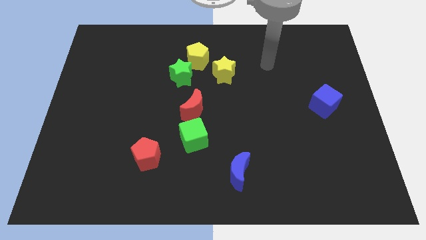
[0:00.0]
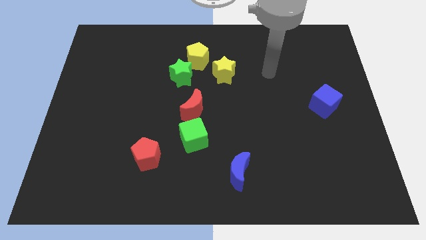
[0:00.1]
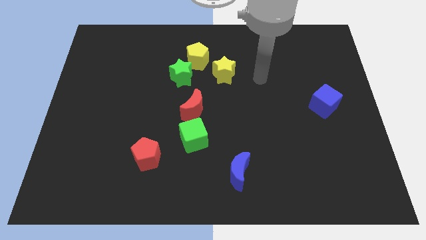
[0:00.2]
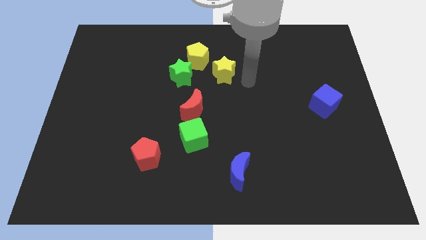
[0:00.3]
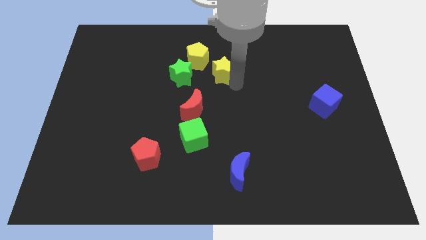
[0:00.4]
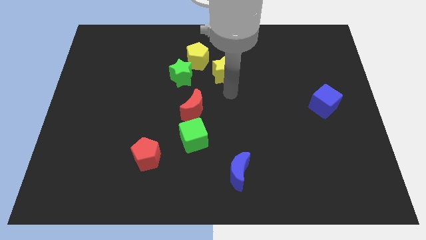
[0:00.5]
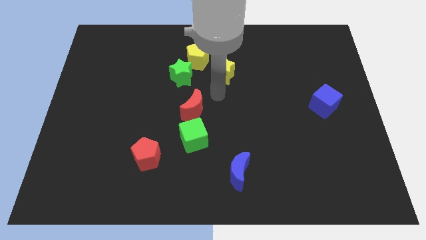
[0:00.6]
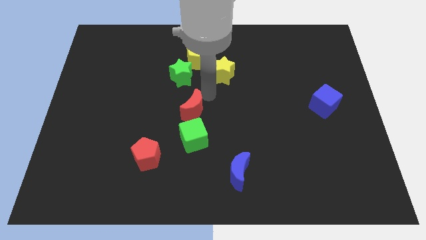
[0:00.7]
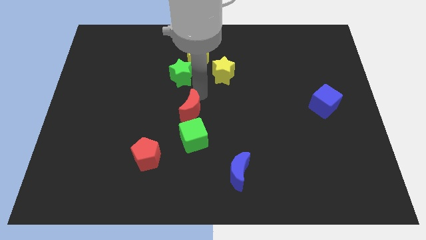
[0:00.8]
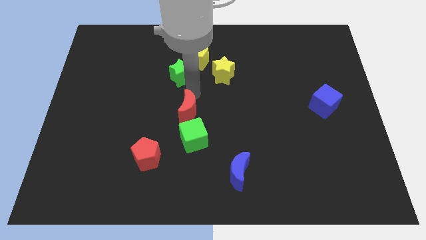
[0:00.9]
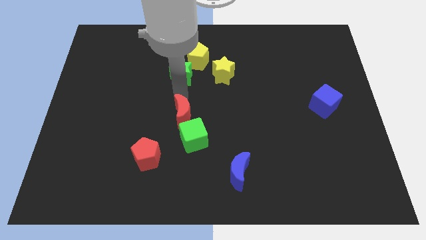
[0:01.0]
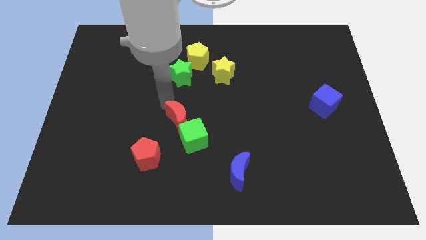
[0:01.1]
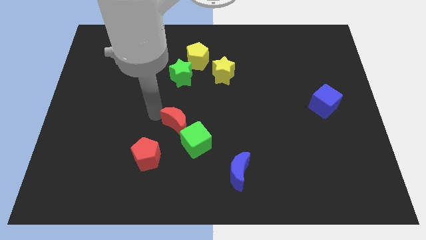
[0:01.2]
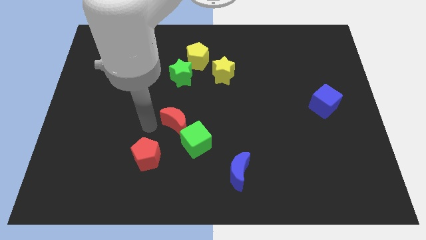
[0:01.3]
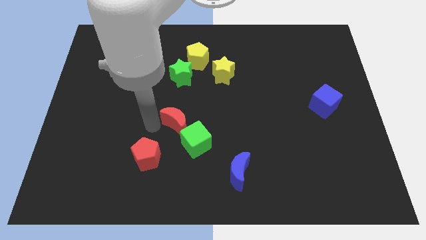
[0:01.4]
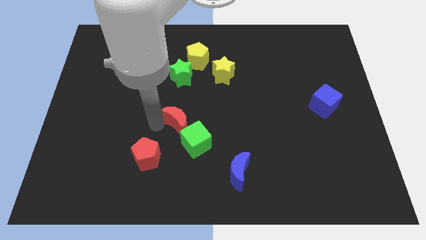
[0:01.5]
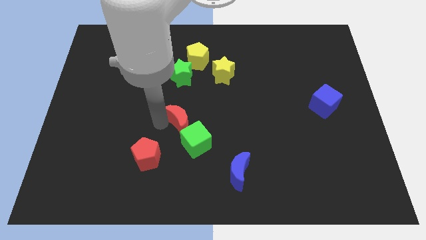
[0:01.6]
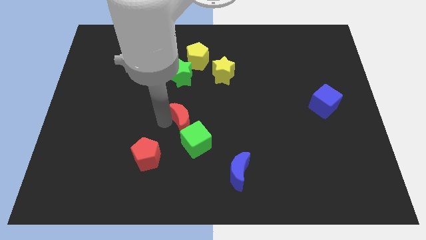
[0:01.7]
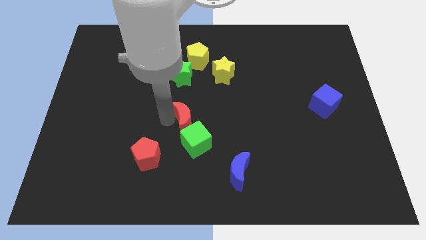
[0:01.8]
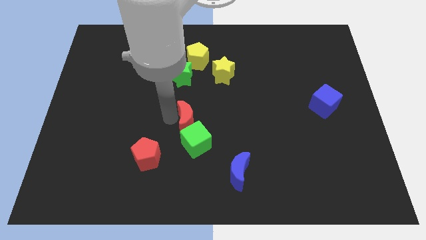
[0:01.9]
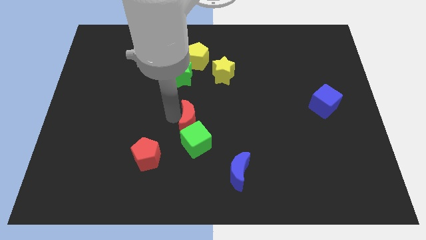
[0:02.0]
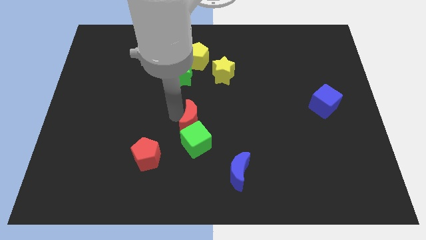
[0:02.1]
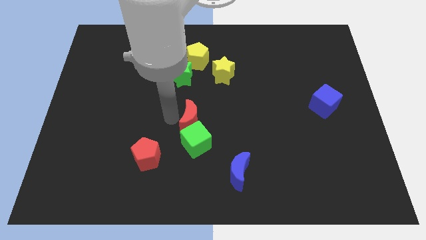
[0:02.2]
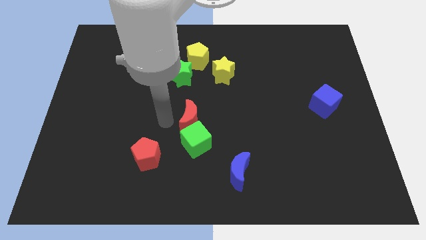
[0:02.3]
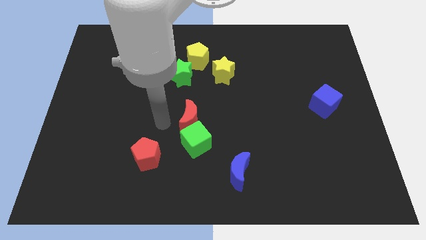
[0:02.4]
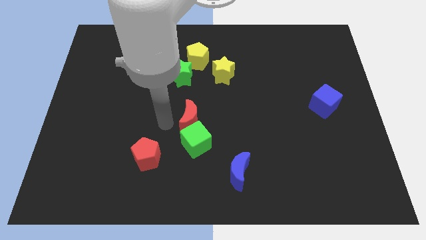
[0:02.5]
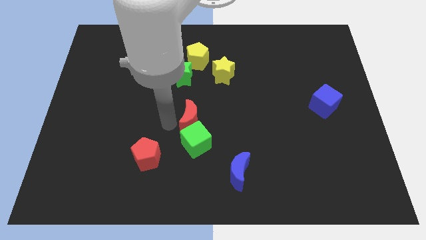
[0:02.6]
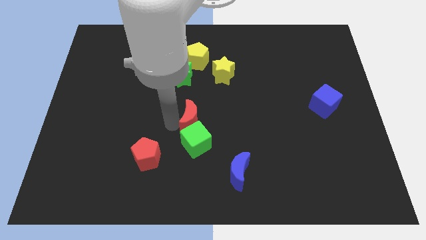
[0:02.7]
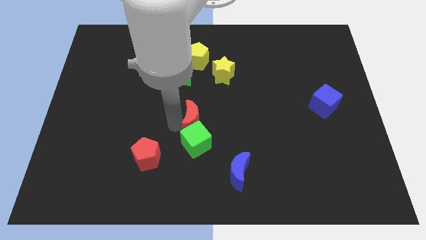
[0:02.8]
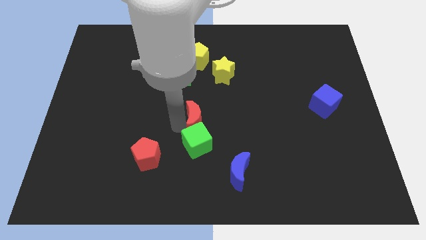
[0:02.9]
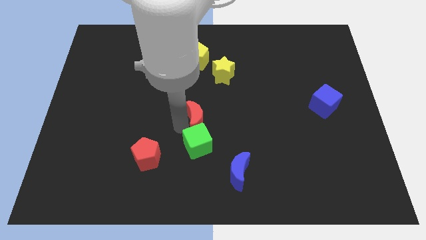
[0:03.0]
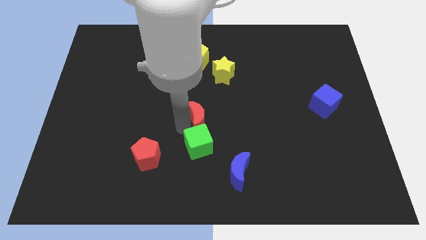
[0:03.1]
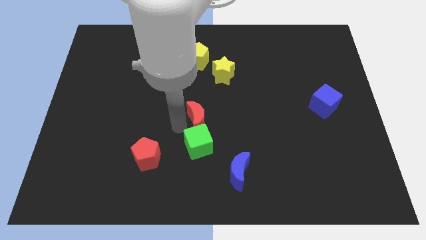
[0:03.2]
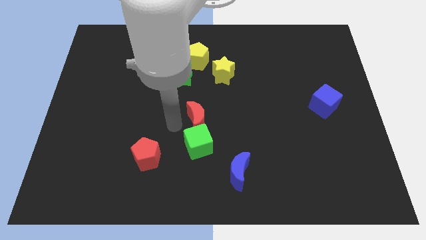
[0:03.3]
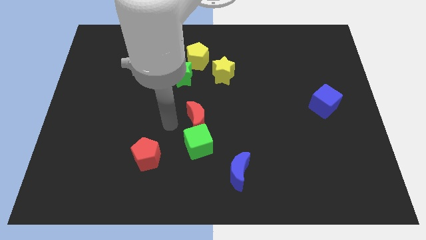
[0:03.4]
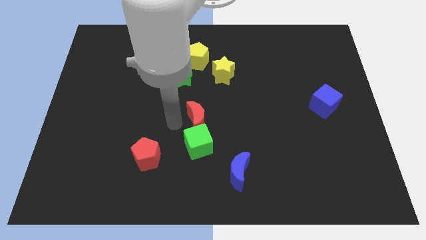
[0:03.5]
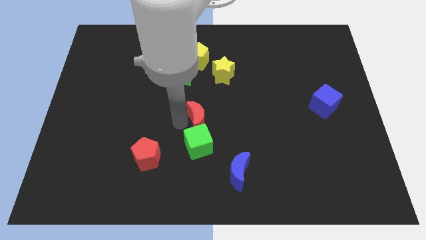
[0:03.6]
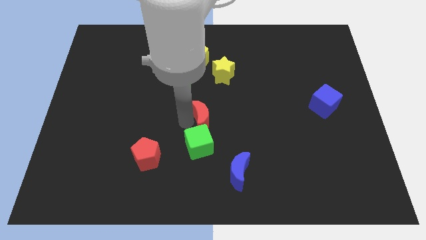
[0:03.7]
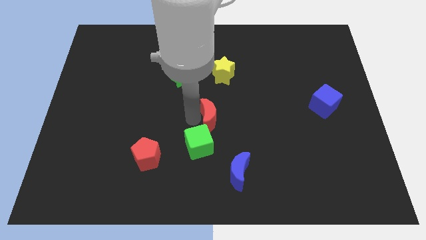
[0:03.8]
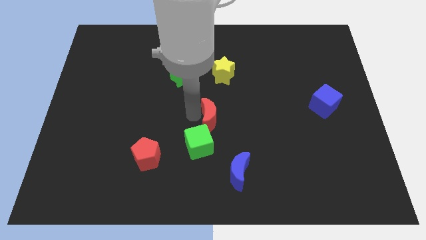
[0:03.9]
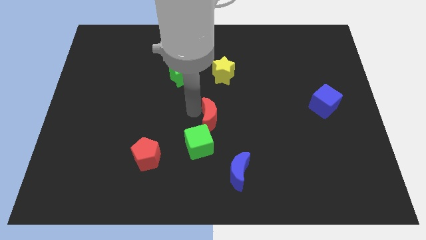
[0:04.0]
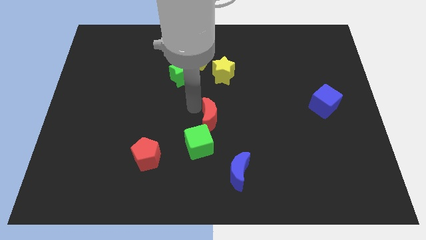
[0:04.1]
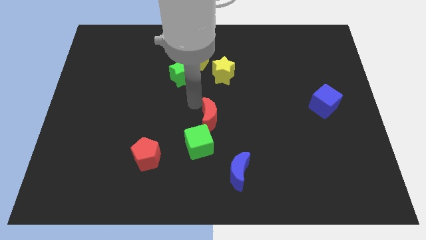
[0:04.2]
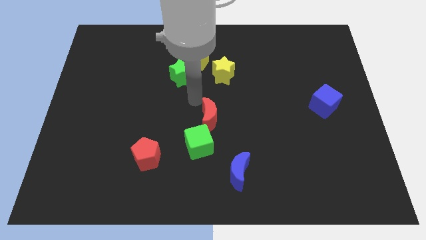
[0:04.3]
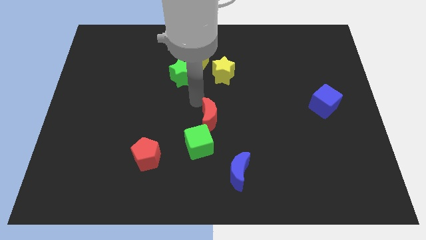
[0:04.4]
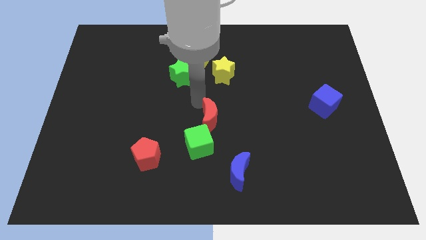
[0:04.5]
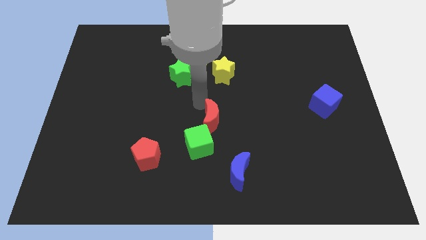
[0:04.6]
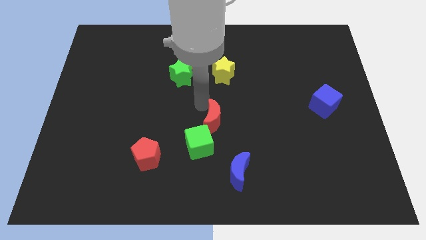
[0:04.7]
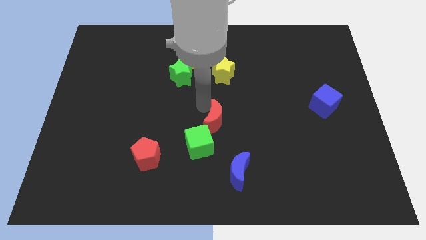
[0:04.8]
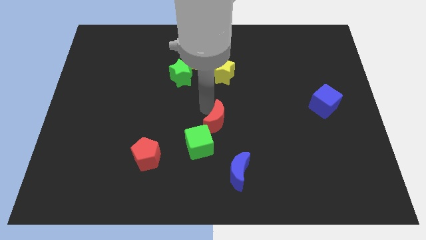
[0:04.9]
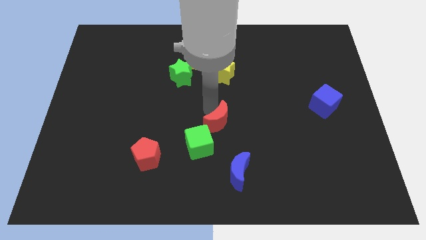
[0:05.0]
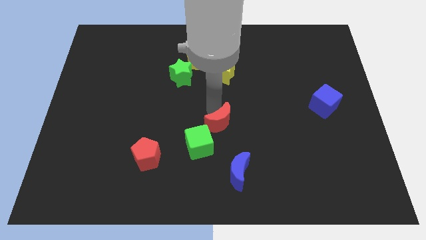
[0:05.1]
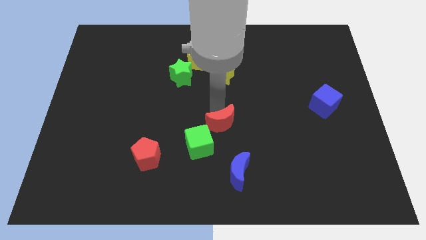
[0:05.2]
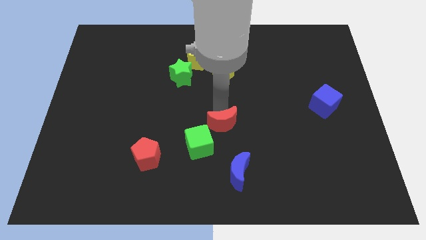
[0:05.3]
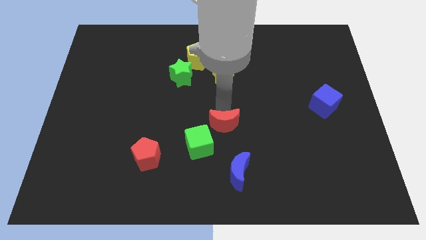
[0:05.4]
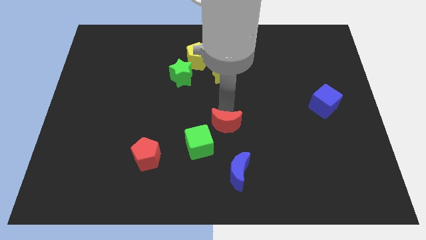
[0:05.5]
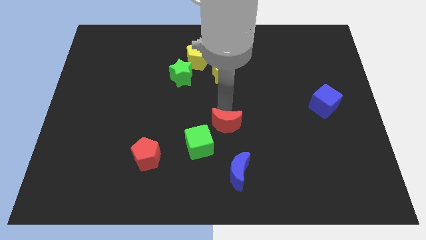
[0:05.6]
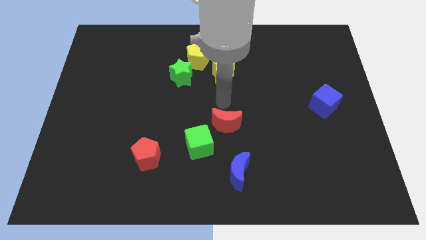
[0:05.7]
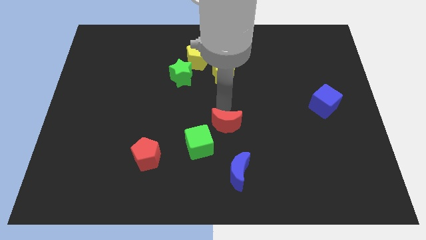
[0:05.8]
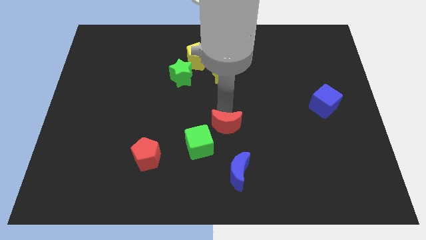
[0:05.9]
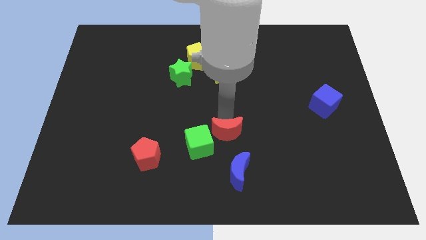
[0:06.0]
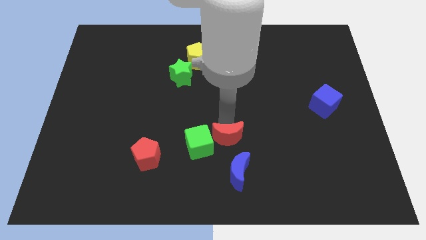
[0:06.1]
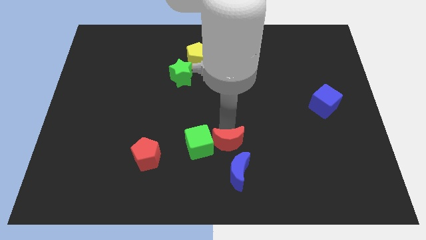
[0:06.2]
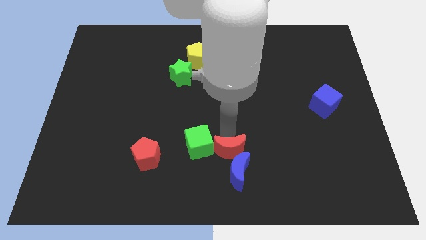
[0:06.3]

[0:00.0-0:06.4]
push the red moon towards the blue moon

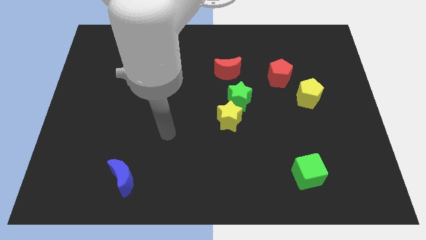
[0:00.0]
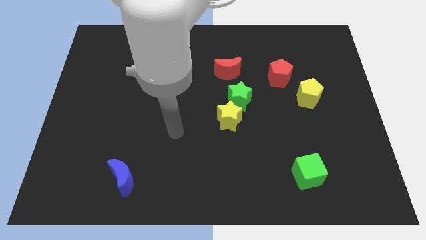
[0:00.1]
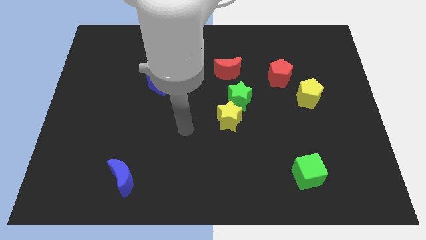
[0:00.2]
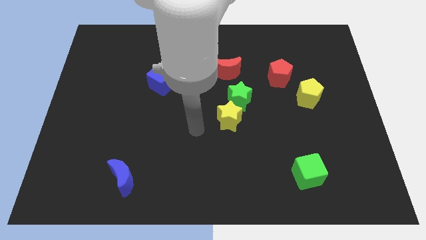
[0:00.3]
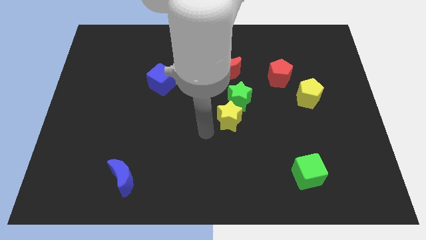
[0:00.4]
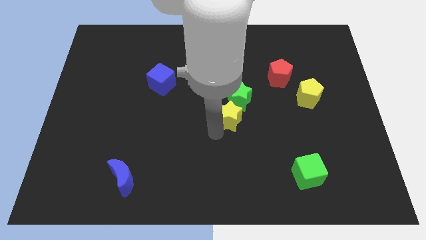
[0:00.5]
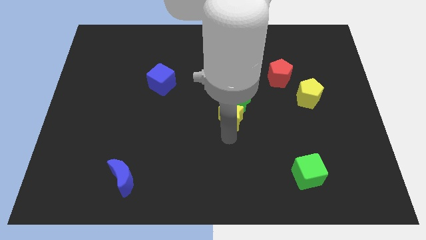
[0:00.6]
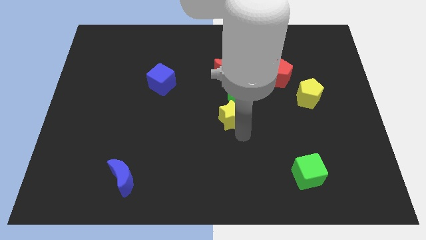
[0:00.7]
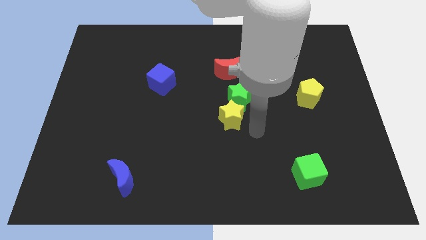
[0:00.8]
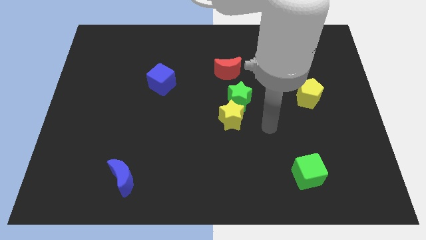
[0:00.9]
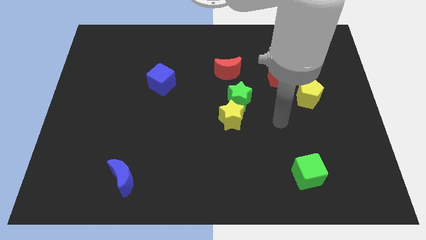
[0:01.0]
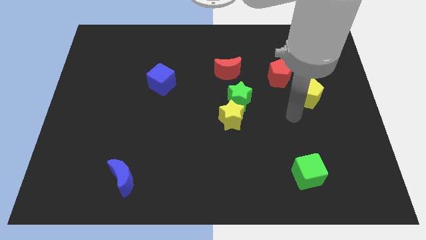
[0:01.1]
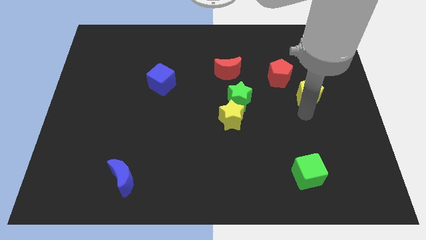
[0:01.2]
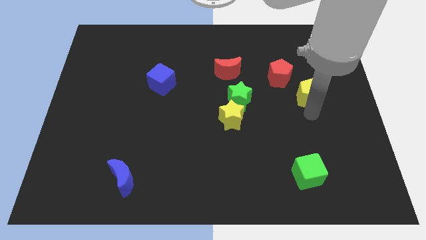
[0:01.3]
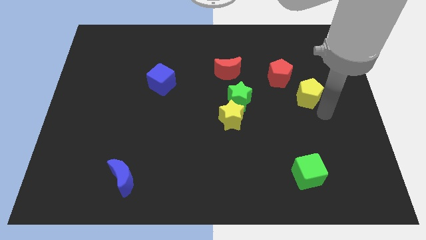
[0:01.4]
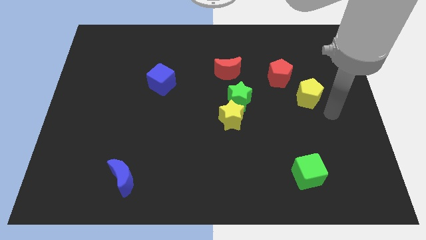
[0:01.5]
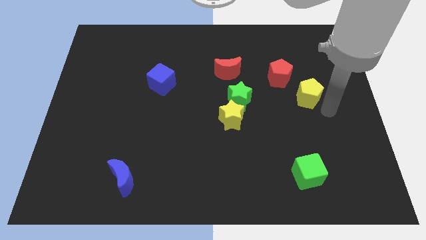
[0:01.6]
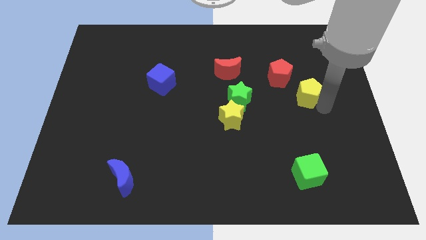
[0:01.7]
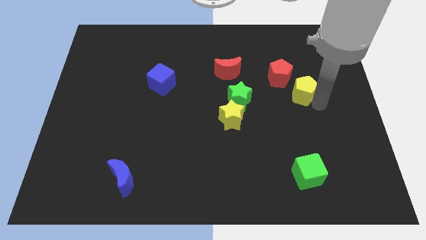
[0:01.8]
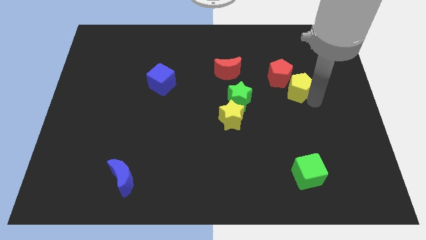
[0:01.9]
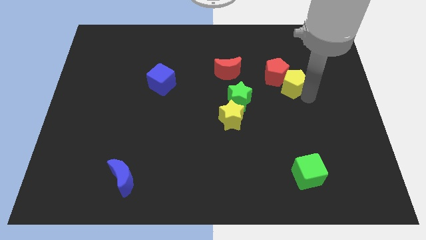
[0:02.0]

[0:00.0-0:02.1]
move the yellow pentagon next to the red pentagon

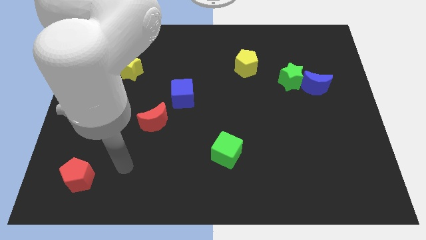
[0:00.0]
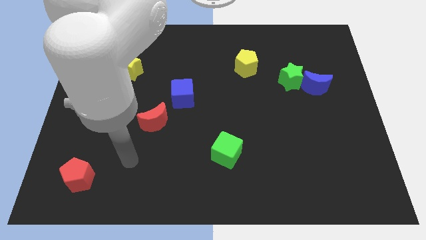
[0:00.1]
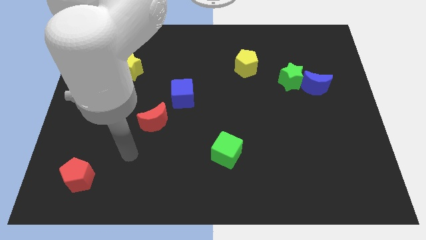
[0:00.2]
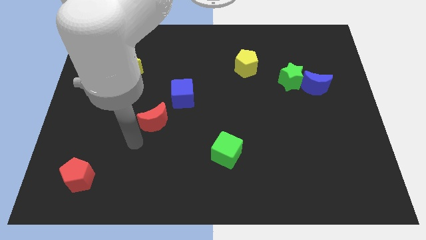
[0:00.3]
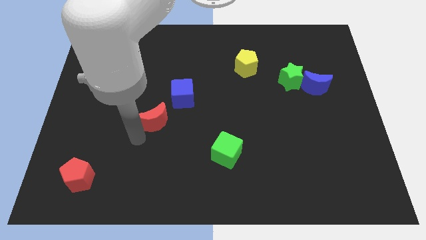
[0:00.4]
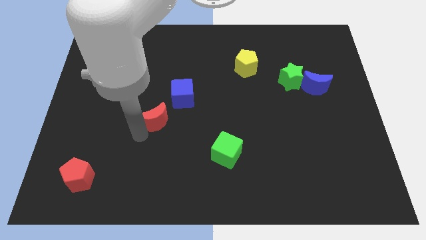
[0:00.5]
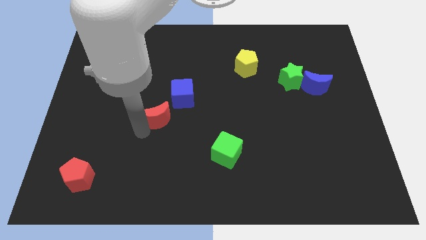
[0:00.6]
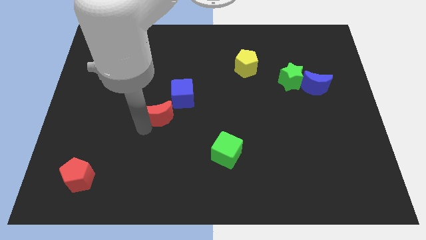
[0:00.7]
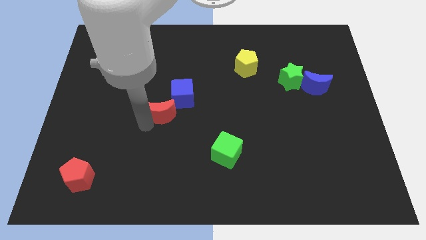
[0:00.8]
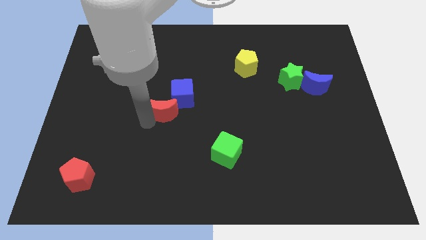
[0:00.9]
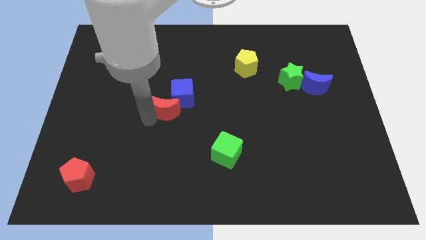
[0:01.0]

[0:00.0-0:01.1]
put the red moon next to the blue cube
